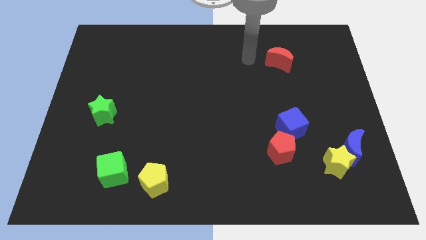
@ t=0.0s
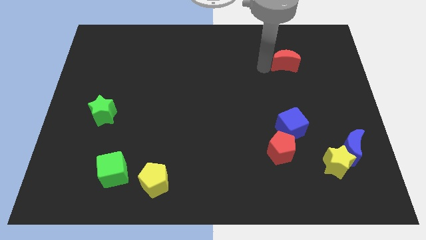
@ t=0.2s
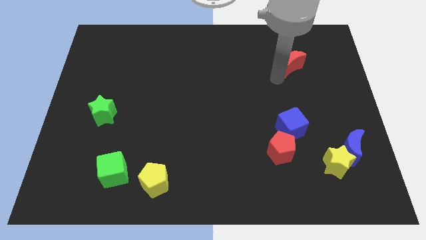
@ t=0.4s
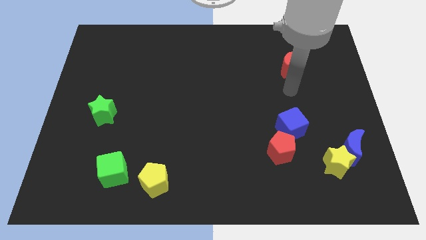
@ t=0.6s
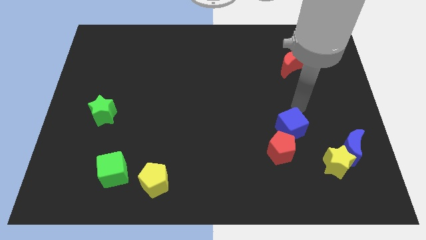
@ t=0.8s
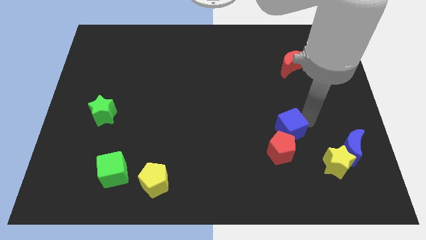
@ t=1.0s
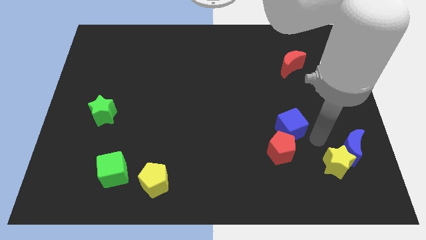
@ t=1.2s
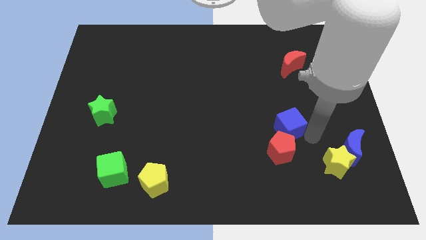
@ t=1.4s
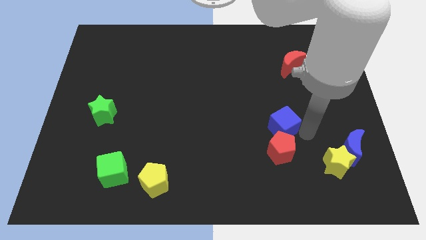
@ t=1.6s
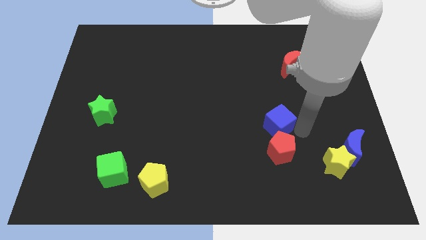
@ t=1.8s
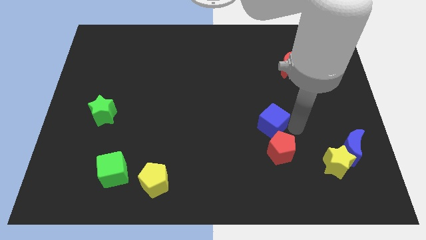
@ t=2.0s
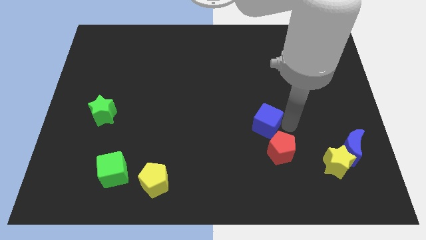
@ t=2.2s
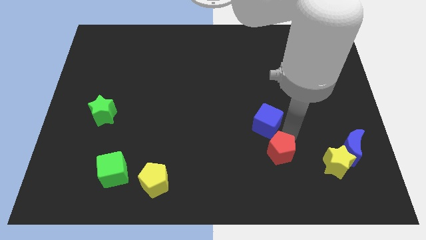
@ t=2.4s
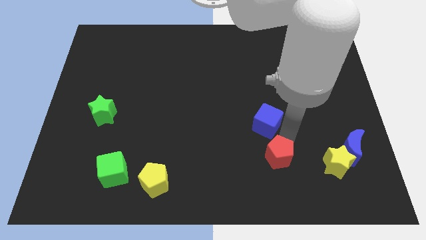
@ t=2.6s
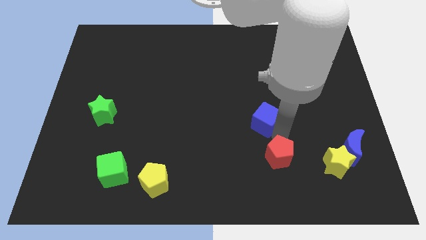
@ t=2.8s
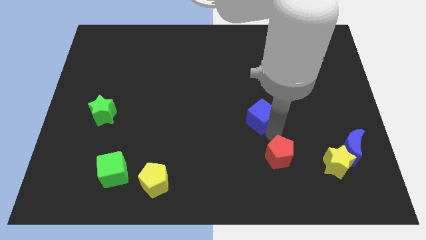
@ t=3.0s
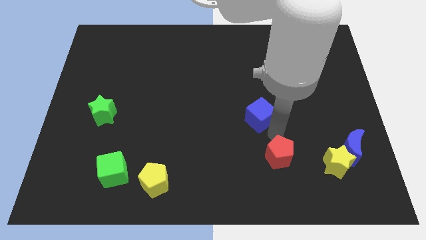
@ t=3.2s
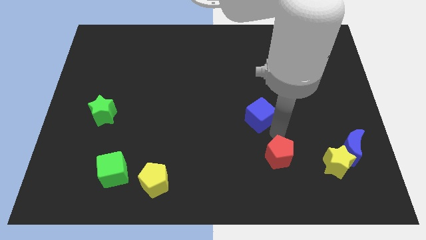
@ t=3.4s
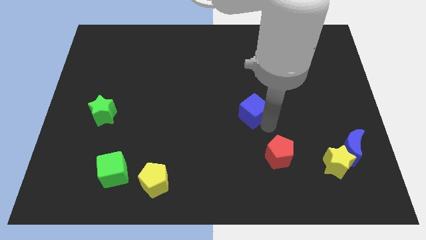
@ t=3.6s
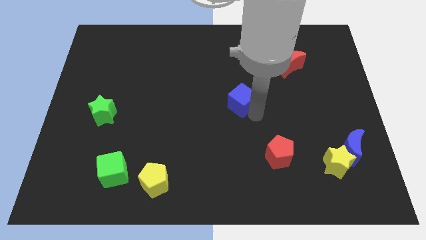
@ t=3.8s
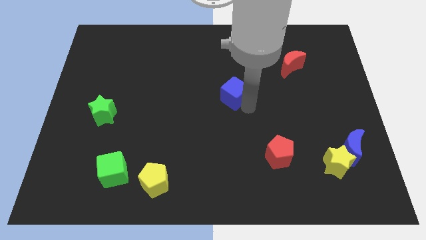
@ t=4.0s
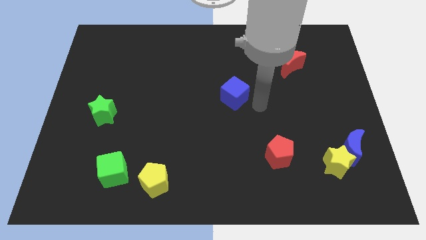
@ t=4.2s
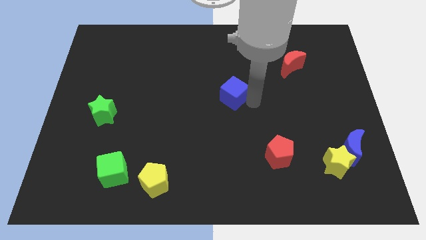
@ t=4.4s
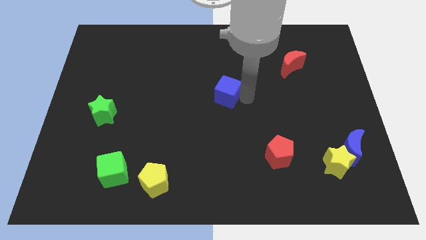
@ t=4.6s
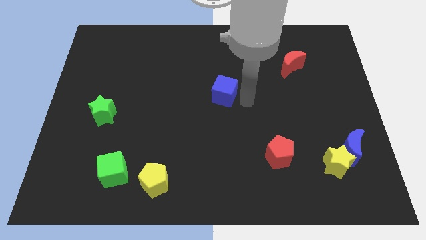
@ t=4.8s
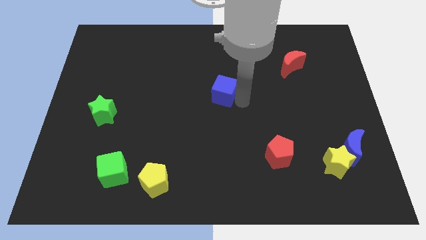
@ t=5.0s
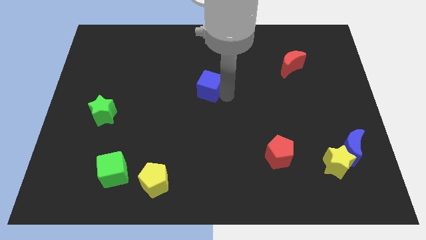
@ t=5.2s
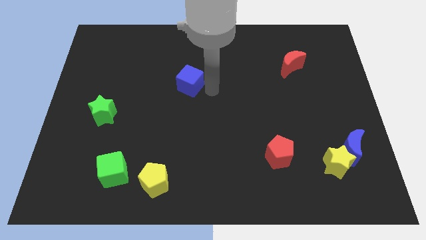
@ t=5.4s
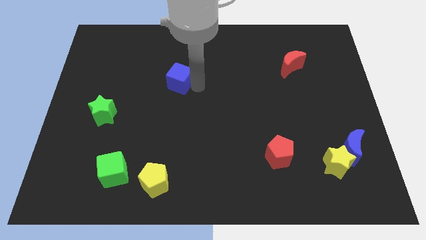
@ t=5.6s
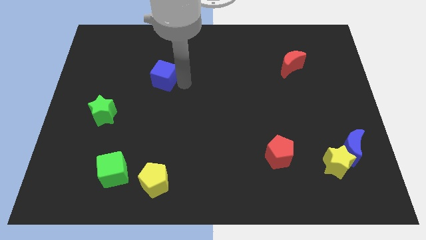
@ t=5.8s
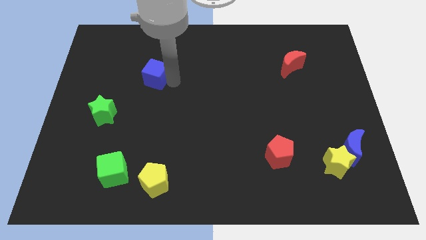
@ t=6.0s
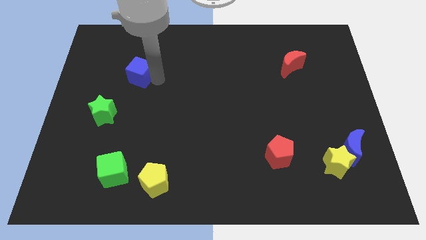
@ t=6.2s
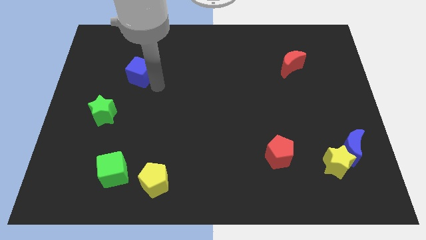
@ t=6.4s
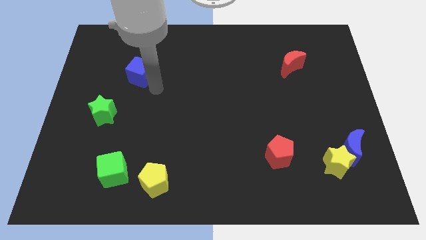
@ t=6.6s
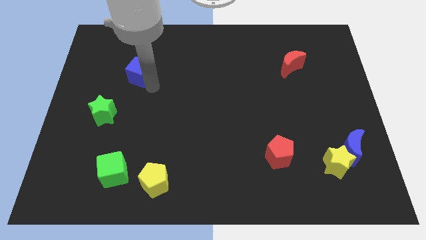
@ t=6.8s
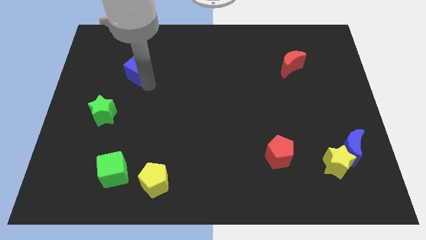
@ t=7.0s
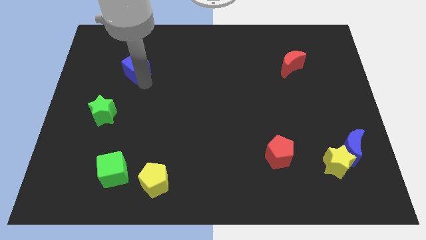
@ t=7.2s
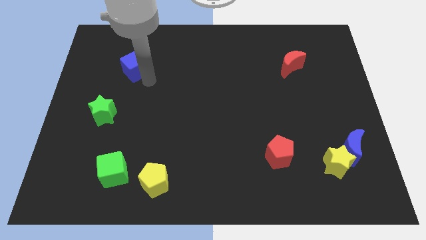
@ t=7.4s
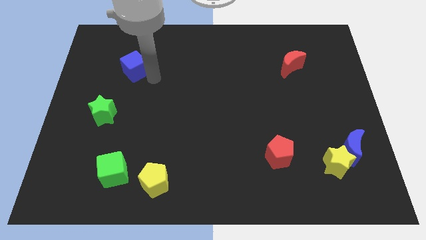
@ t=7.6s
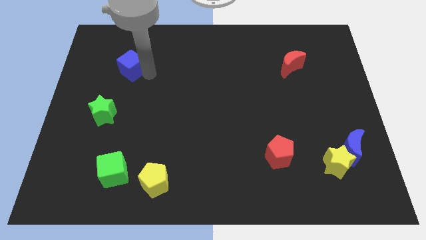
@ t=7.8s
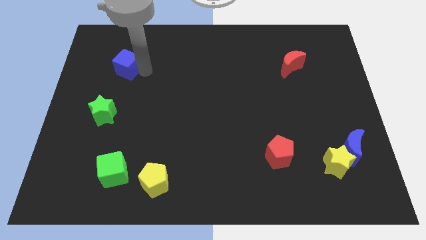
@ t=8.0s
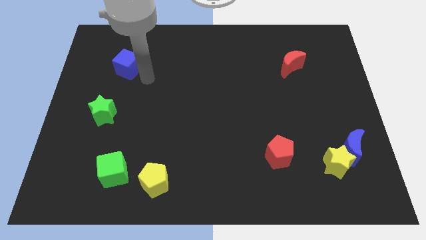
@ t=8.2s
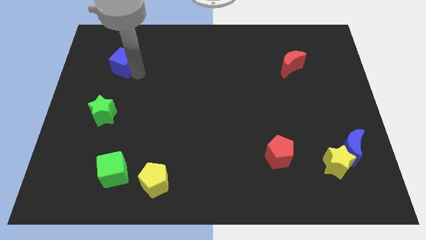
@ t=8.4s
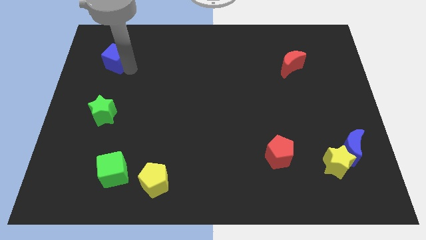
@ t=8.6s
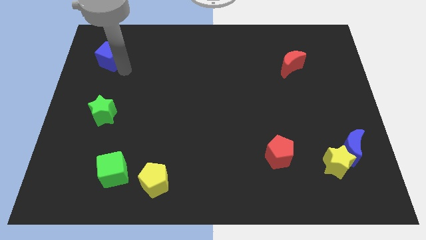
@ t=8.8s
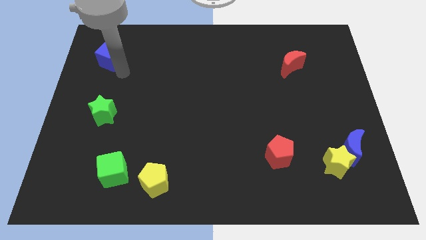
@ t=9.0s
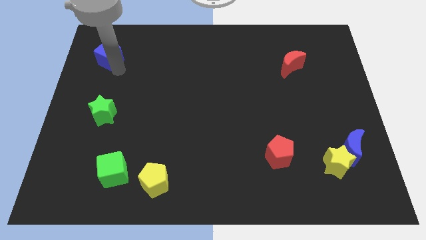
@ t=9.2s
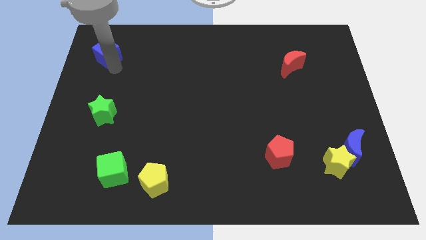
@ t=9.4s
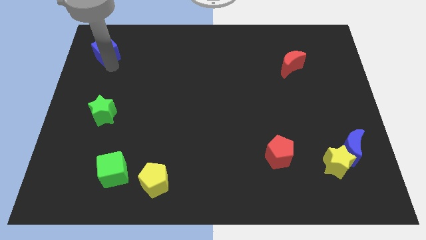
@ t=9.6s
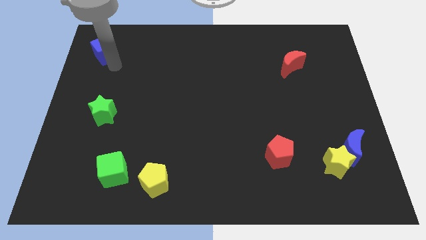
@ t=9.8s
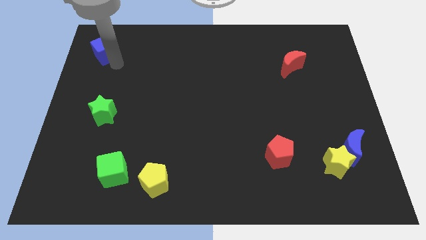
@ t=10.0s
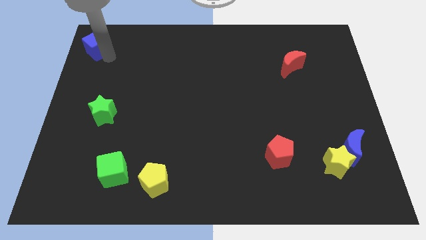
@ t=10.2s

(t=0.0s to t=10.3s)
push the blue cube to the top left of the board

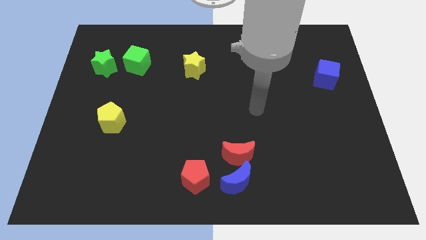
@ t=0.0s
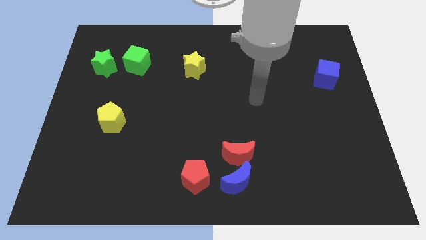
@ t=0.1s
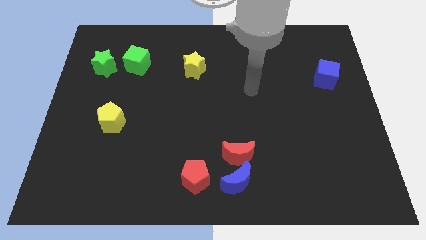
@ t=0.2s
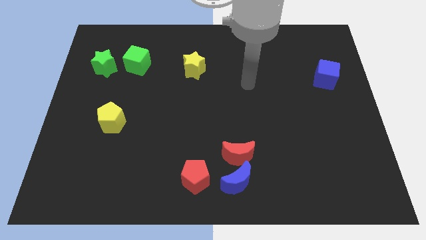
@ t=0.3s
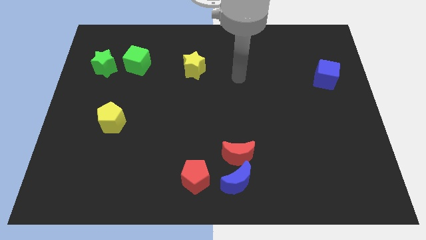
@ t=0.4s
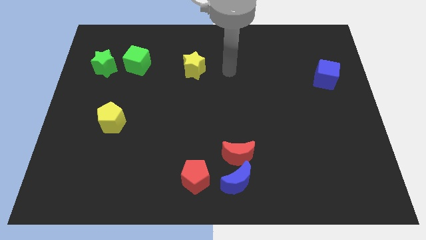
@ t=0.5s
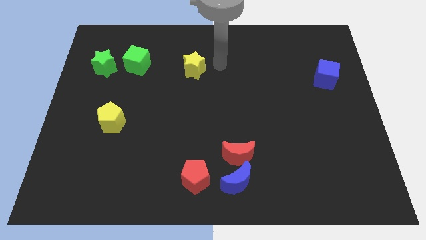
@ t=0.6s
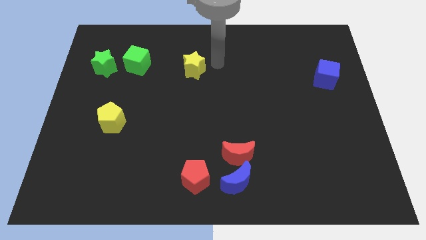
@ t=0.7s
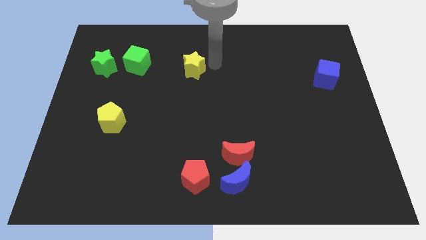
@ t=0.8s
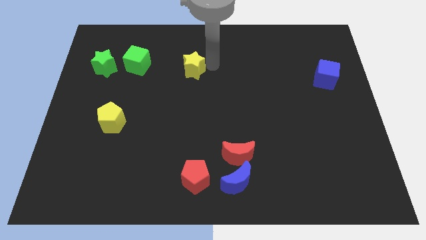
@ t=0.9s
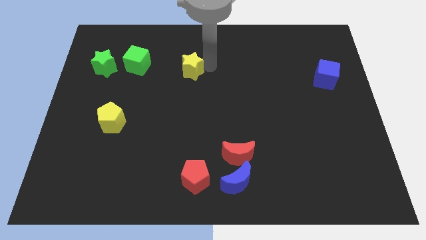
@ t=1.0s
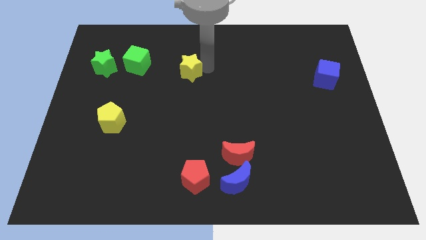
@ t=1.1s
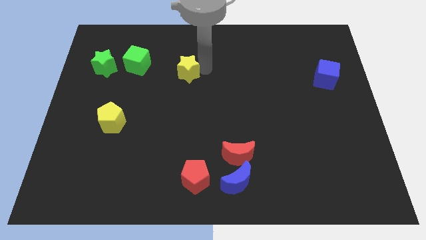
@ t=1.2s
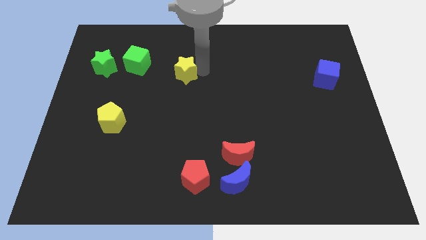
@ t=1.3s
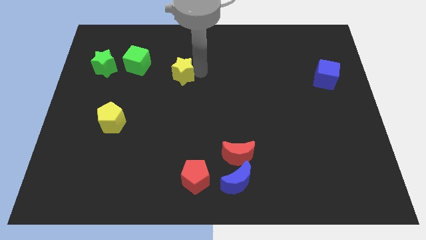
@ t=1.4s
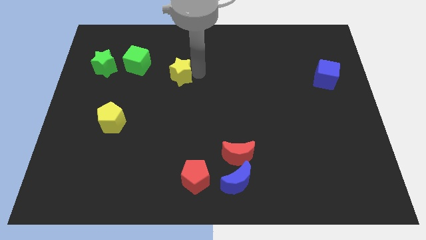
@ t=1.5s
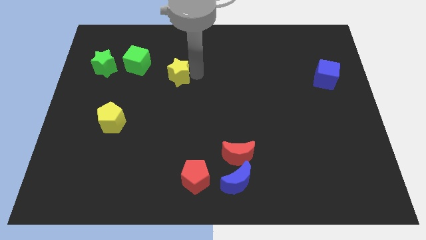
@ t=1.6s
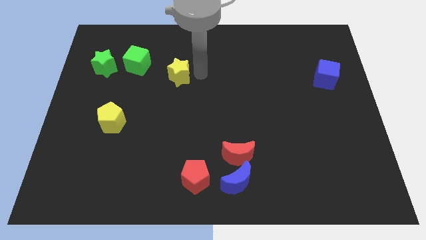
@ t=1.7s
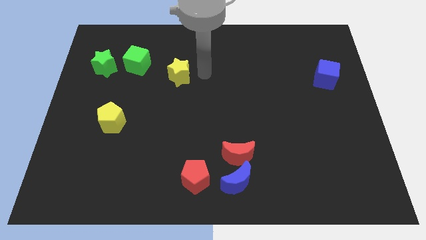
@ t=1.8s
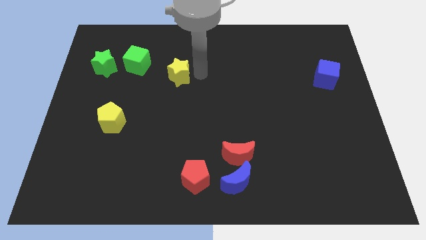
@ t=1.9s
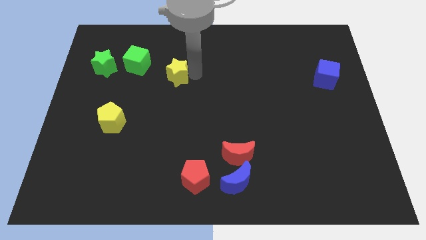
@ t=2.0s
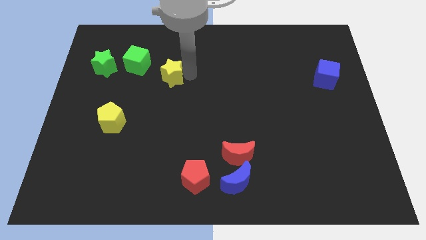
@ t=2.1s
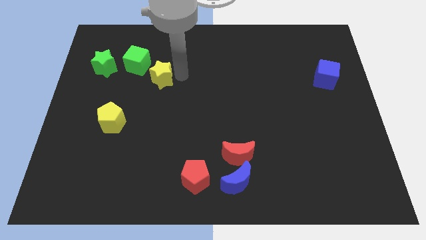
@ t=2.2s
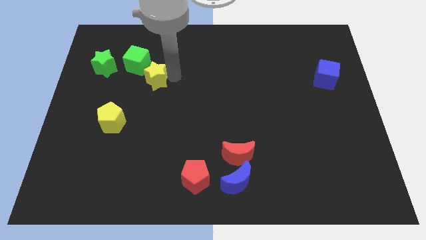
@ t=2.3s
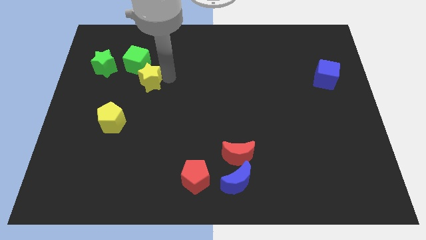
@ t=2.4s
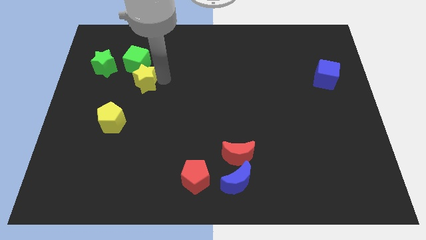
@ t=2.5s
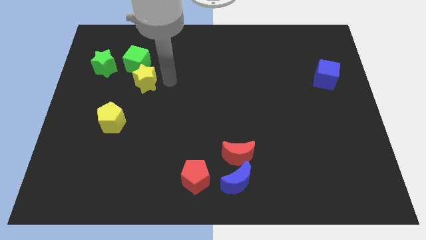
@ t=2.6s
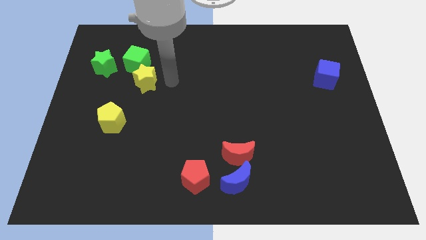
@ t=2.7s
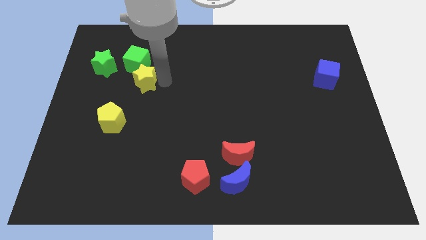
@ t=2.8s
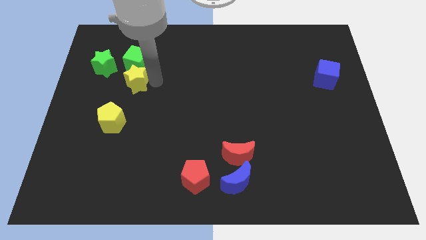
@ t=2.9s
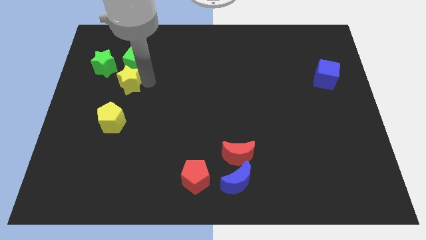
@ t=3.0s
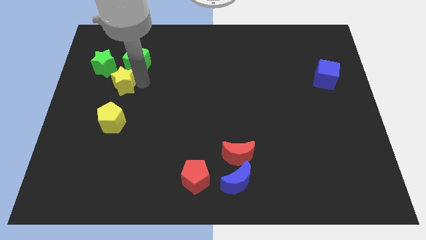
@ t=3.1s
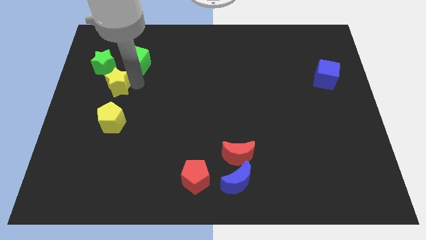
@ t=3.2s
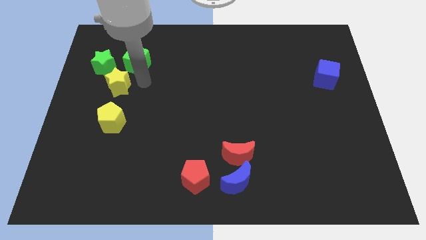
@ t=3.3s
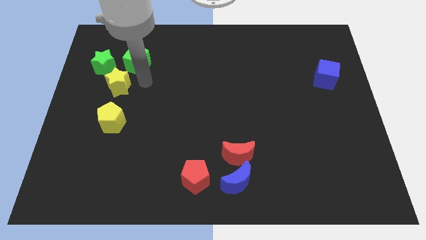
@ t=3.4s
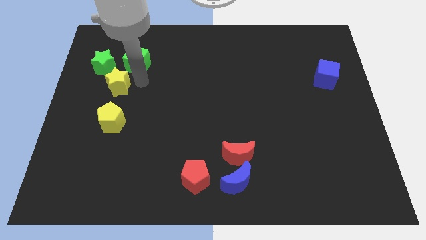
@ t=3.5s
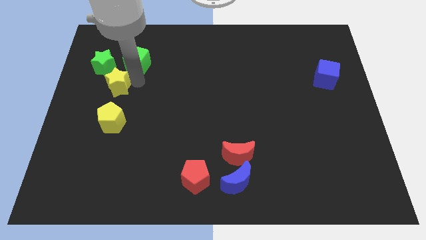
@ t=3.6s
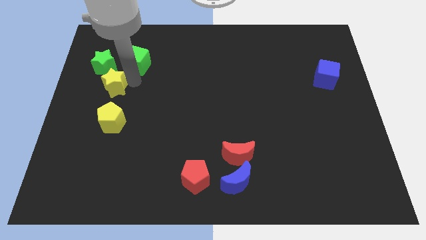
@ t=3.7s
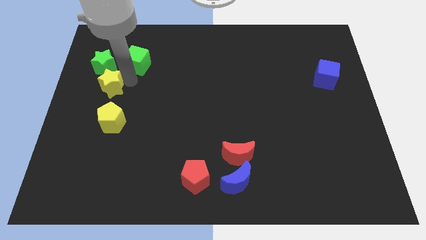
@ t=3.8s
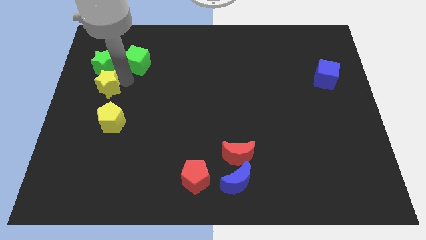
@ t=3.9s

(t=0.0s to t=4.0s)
move the yellow star to the left side
